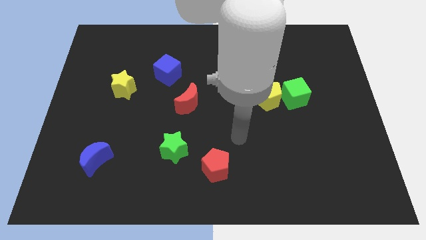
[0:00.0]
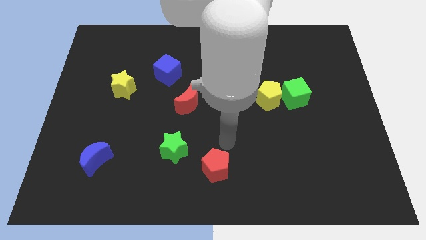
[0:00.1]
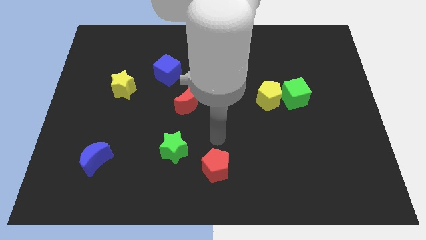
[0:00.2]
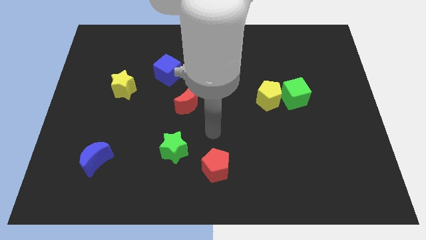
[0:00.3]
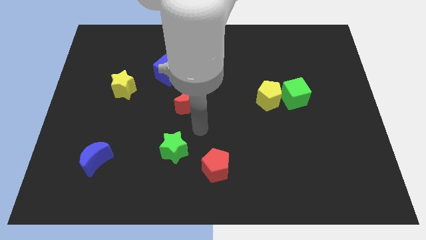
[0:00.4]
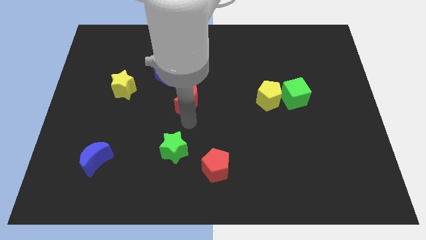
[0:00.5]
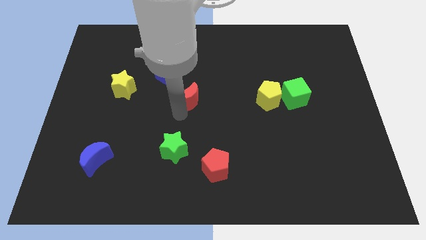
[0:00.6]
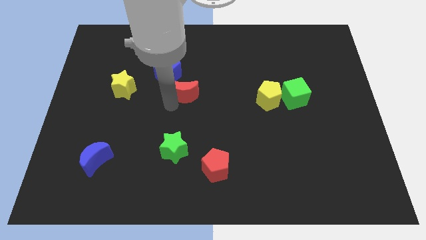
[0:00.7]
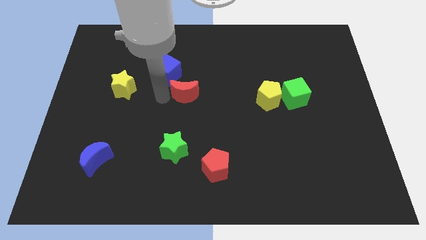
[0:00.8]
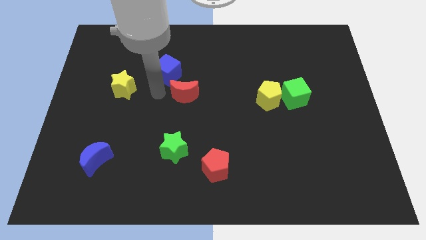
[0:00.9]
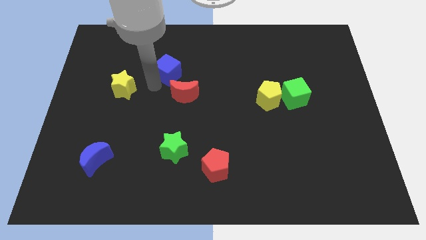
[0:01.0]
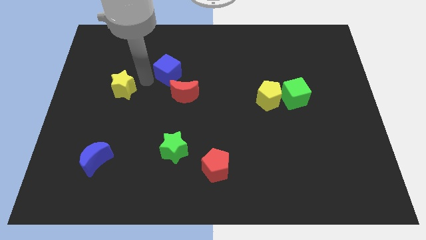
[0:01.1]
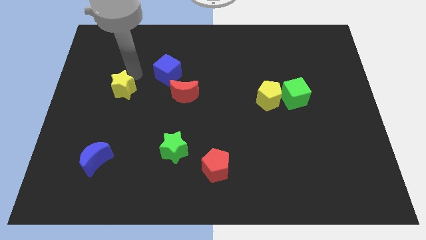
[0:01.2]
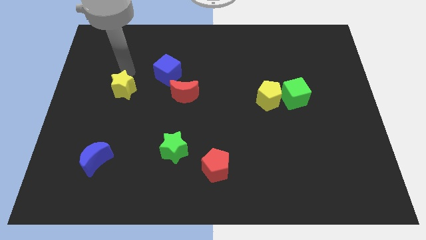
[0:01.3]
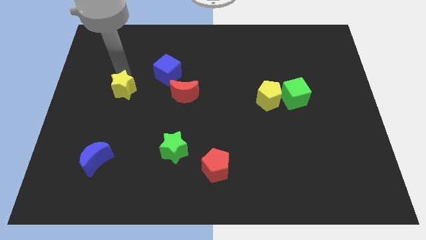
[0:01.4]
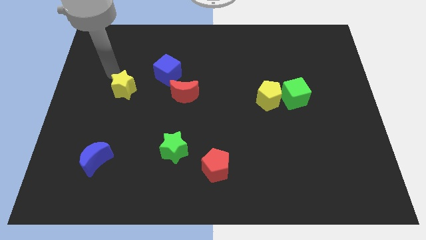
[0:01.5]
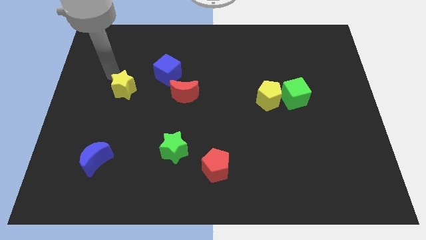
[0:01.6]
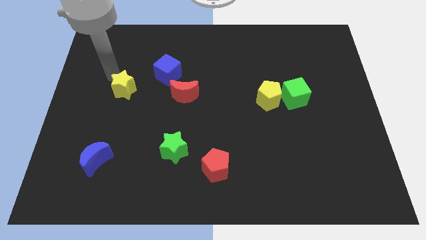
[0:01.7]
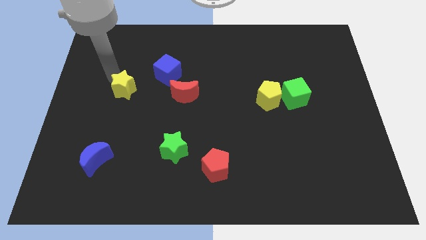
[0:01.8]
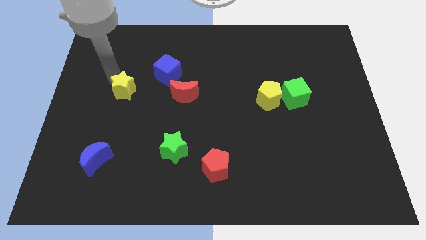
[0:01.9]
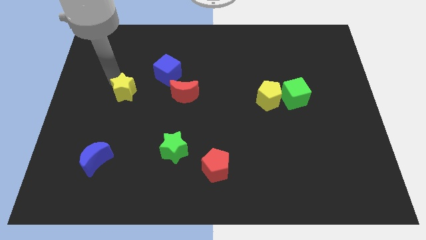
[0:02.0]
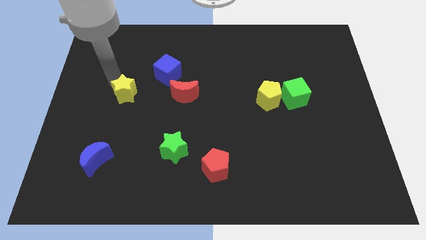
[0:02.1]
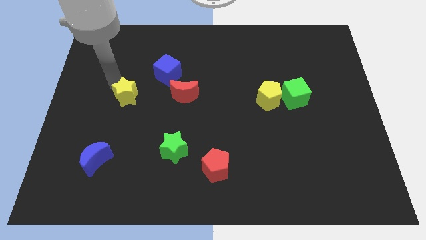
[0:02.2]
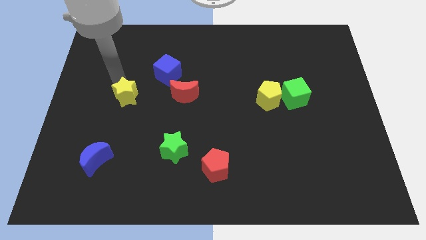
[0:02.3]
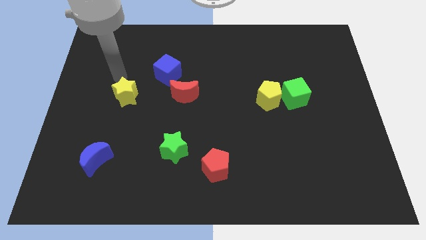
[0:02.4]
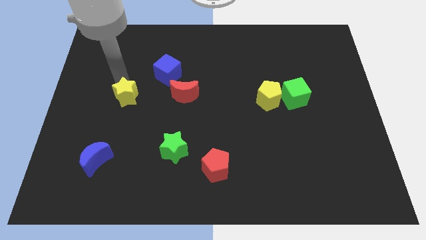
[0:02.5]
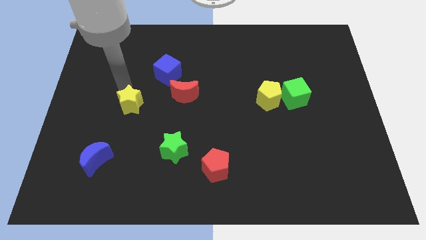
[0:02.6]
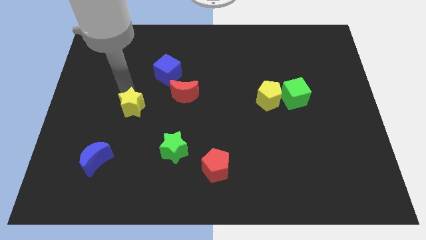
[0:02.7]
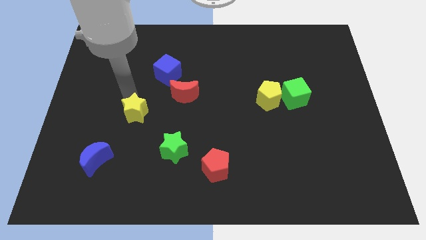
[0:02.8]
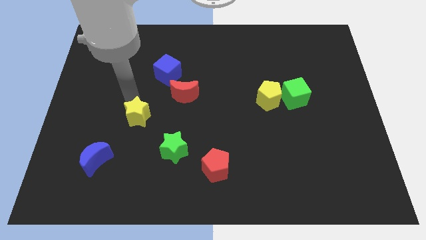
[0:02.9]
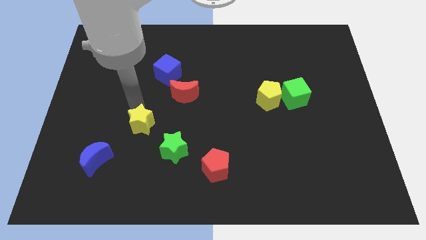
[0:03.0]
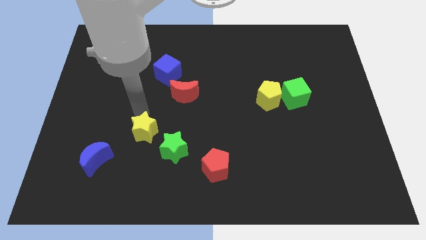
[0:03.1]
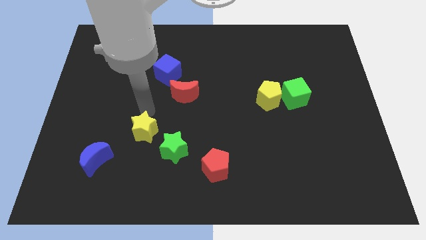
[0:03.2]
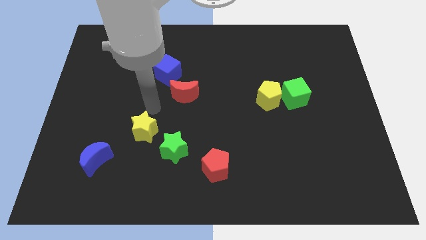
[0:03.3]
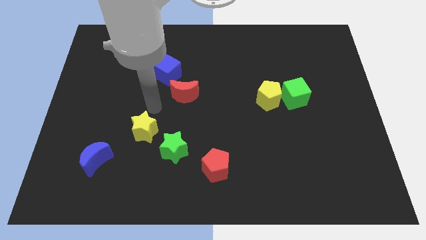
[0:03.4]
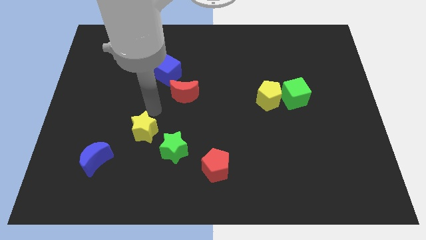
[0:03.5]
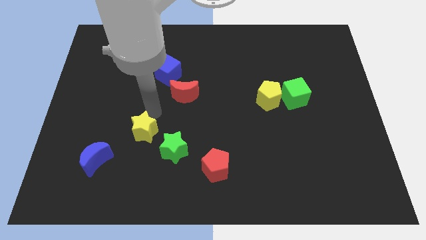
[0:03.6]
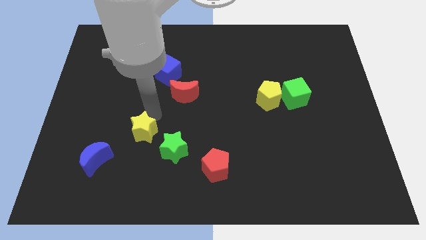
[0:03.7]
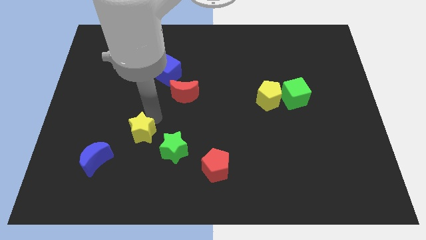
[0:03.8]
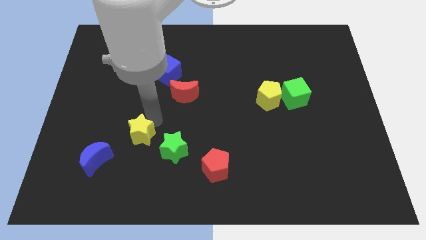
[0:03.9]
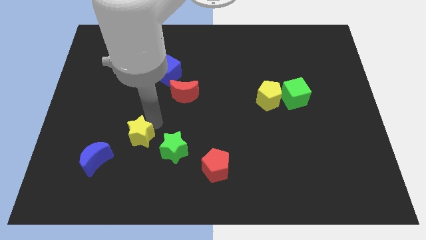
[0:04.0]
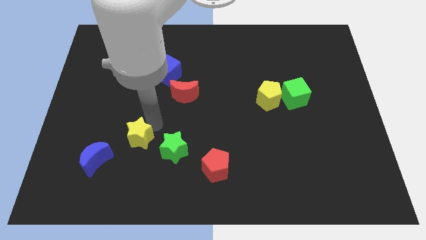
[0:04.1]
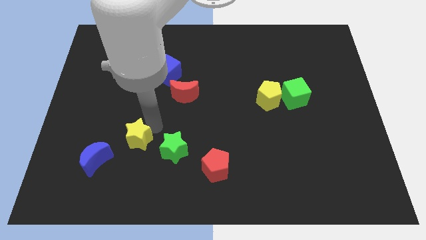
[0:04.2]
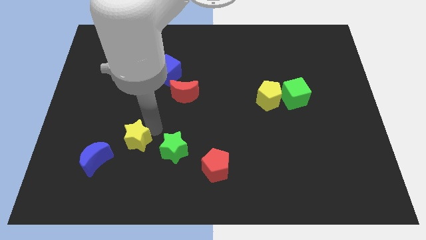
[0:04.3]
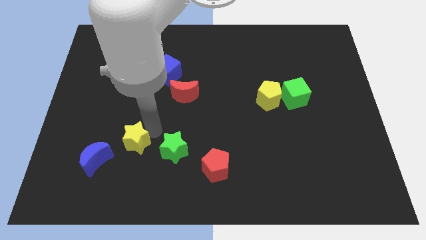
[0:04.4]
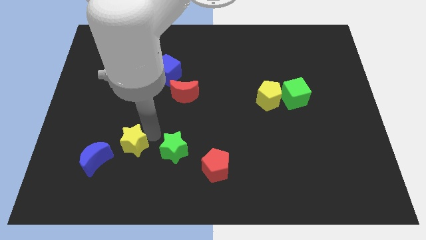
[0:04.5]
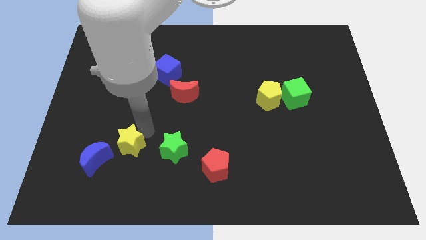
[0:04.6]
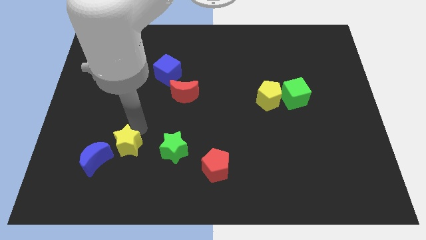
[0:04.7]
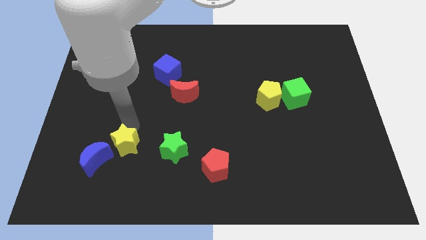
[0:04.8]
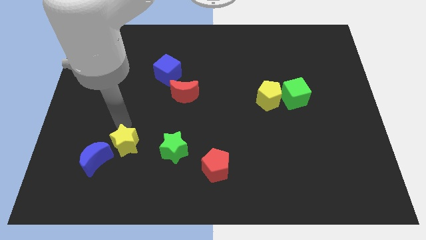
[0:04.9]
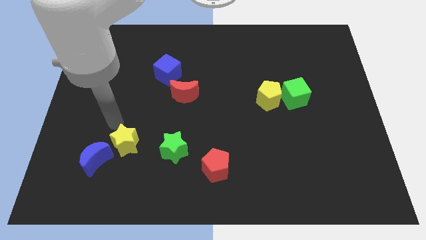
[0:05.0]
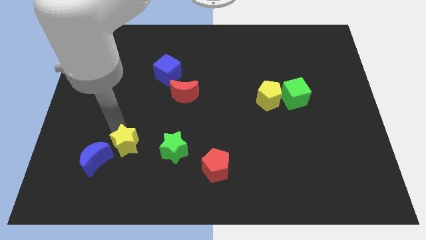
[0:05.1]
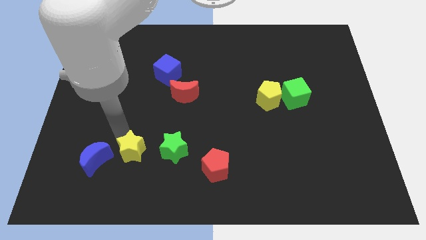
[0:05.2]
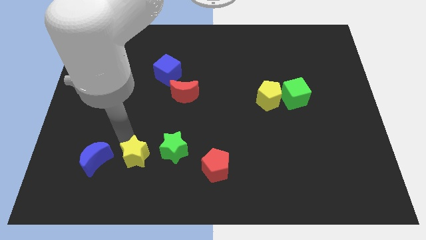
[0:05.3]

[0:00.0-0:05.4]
move the yellow star to the bottom left side of the green star

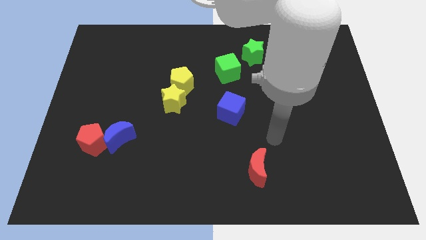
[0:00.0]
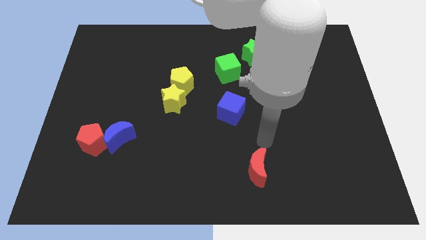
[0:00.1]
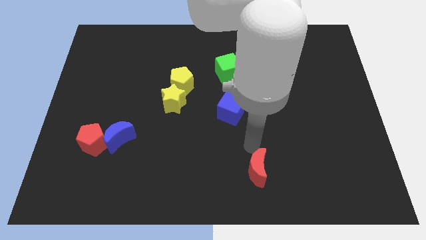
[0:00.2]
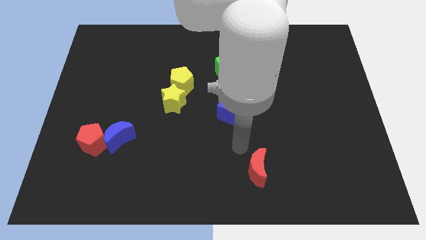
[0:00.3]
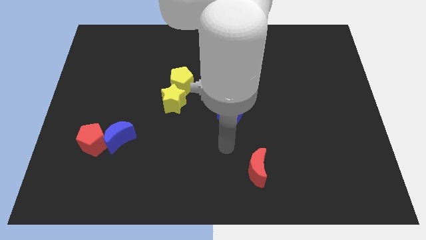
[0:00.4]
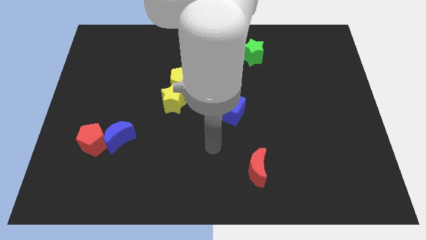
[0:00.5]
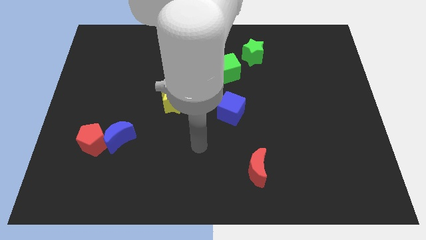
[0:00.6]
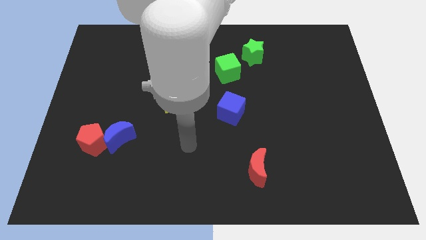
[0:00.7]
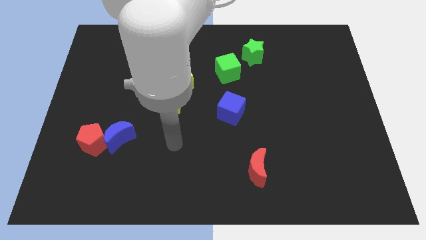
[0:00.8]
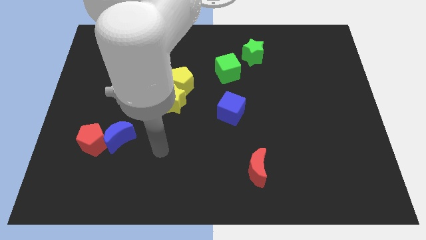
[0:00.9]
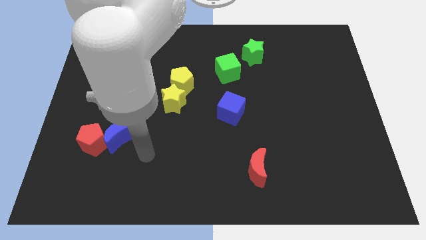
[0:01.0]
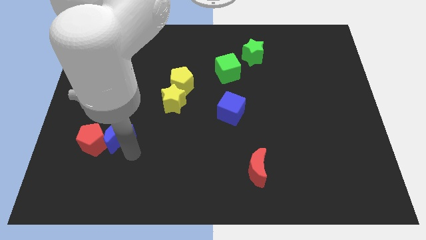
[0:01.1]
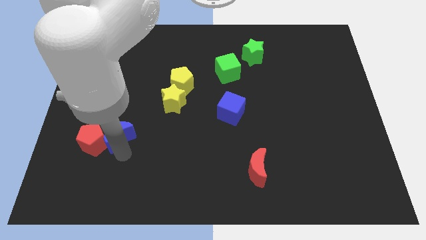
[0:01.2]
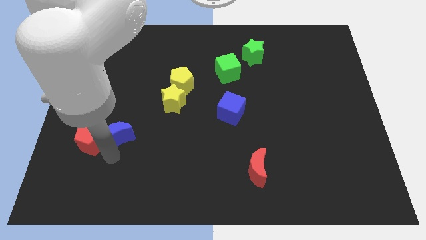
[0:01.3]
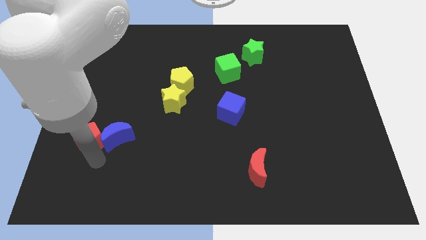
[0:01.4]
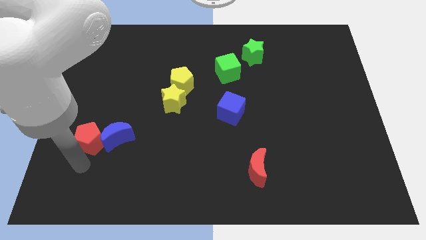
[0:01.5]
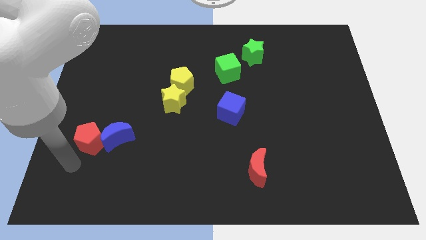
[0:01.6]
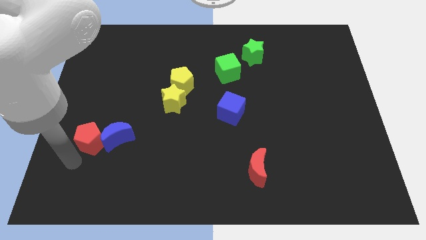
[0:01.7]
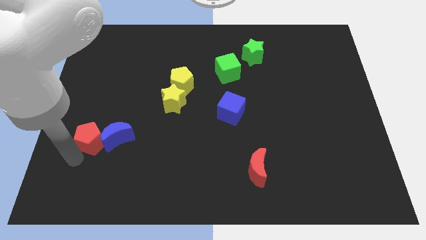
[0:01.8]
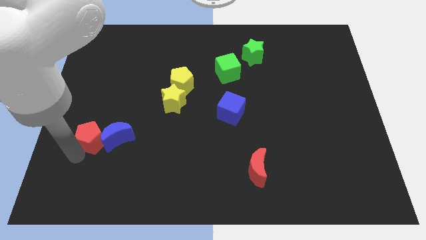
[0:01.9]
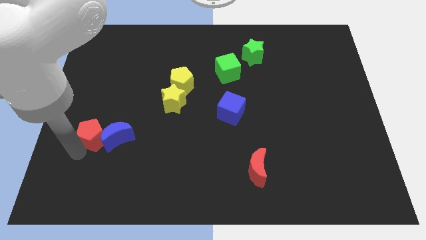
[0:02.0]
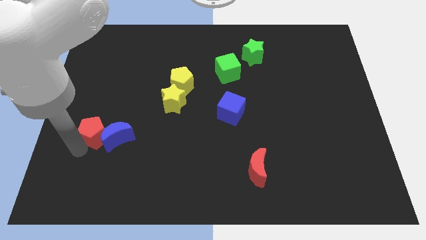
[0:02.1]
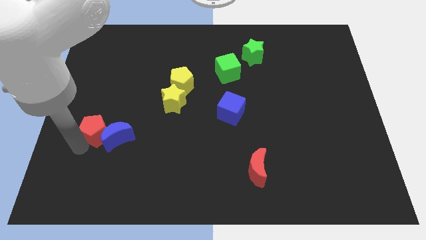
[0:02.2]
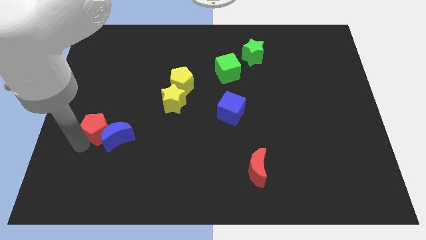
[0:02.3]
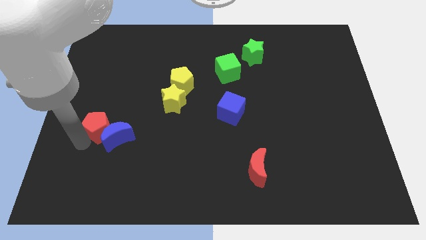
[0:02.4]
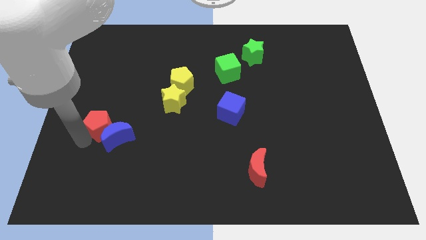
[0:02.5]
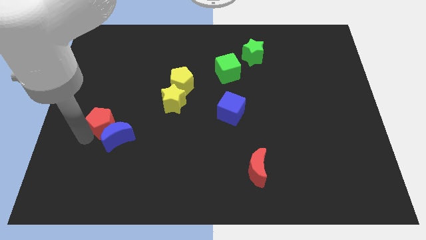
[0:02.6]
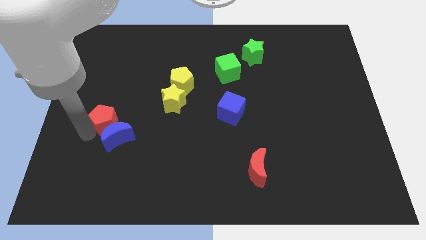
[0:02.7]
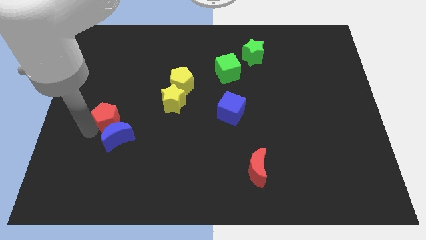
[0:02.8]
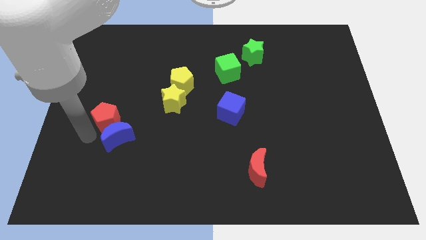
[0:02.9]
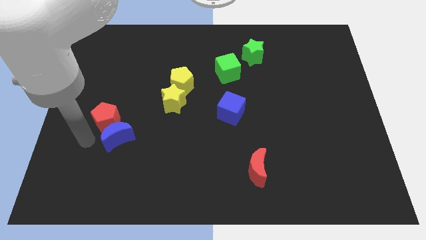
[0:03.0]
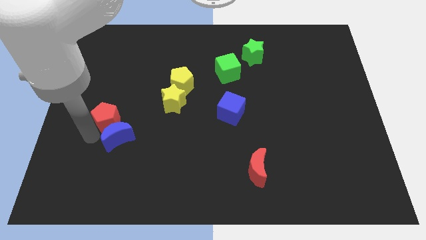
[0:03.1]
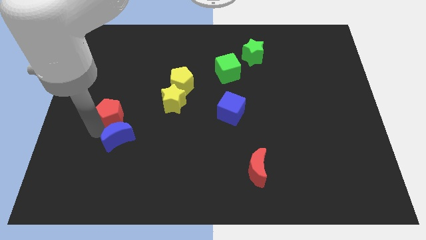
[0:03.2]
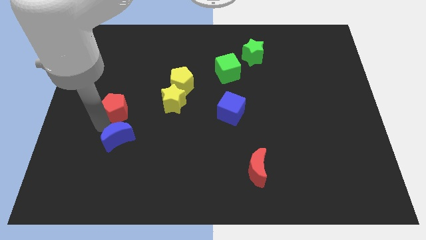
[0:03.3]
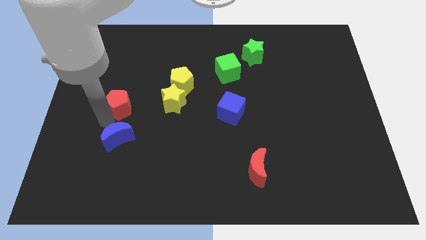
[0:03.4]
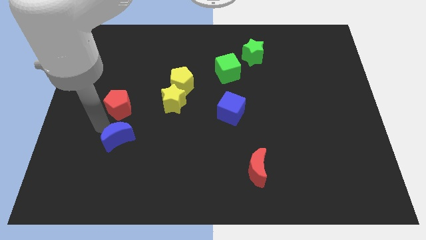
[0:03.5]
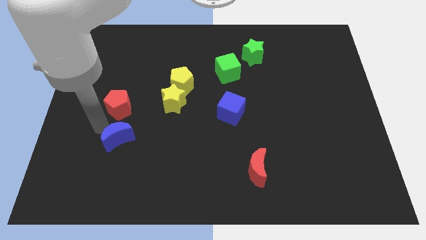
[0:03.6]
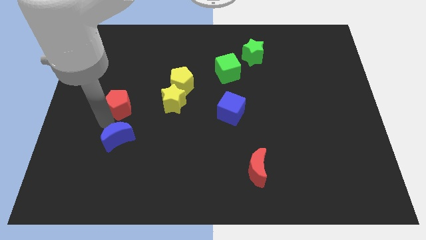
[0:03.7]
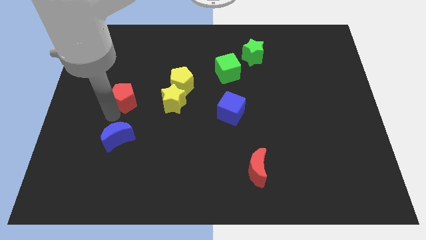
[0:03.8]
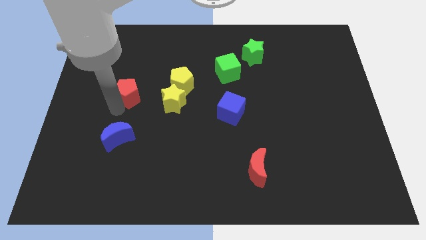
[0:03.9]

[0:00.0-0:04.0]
put the red pentagon to the left of the yellow pentagon
